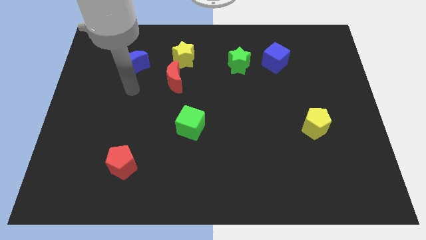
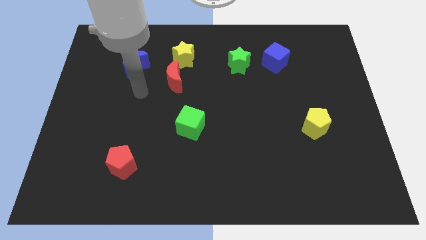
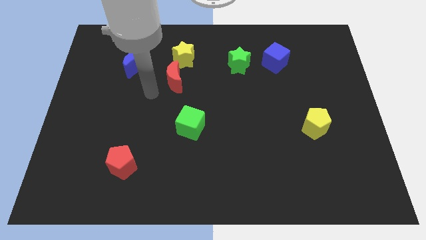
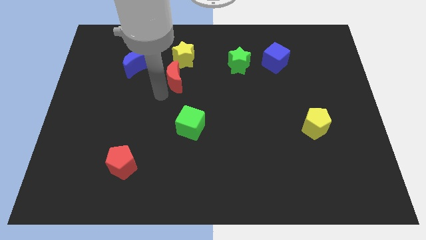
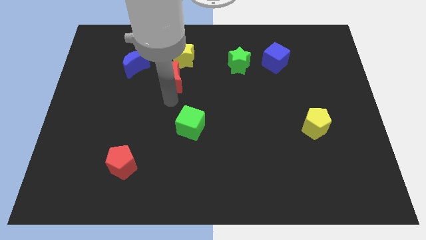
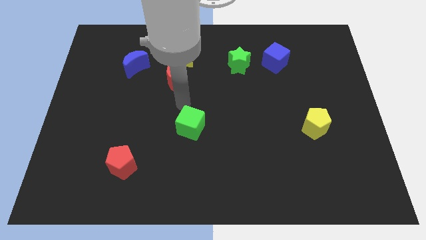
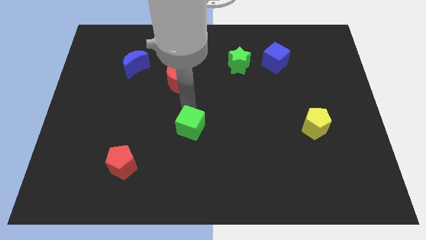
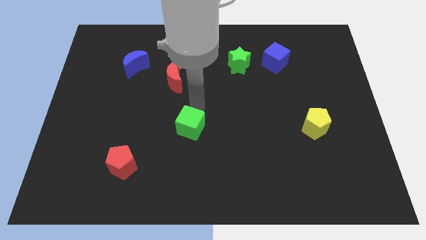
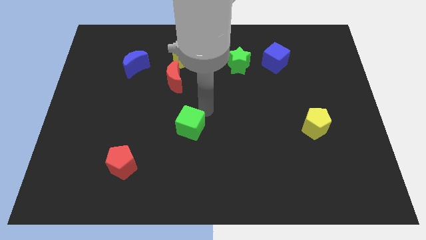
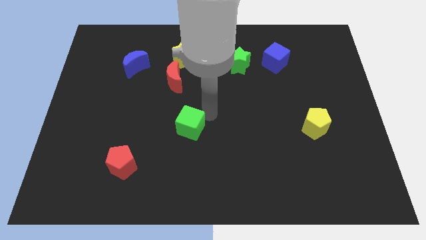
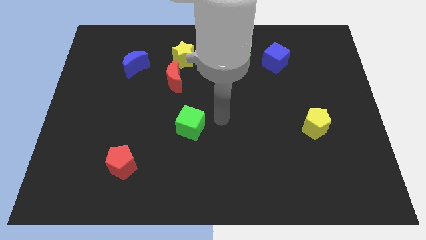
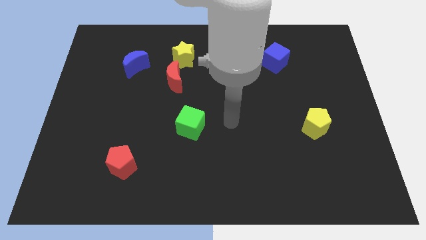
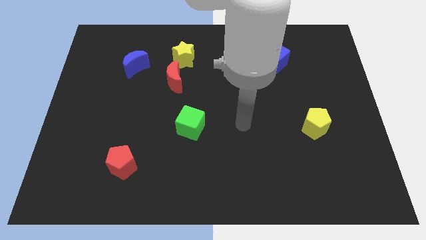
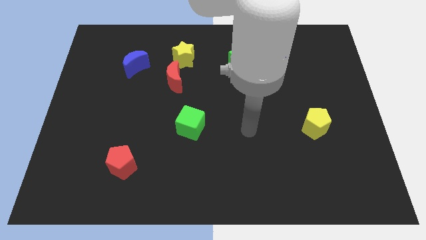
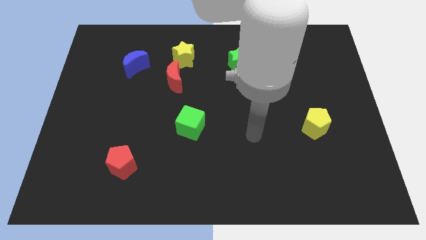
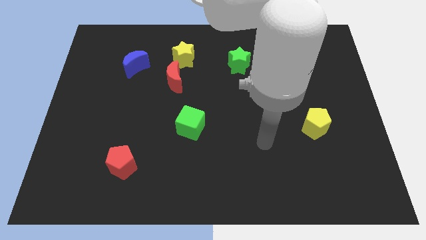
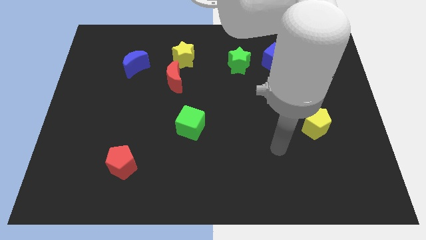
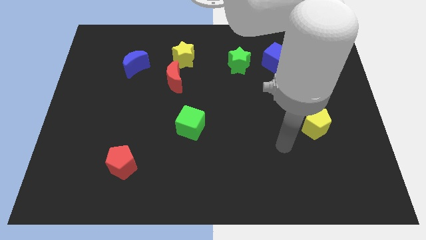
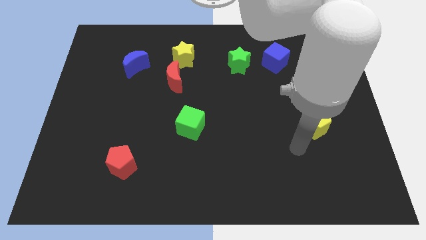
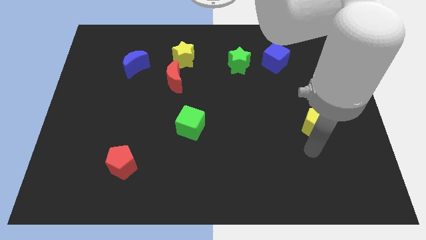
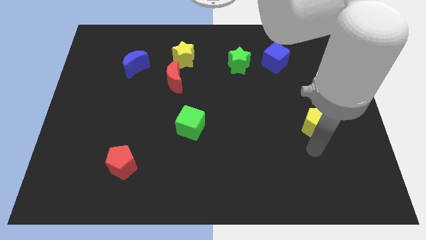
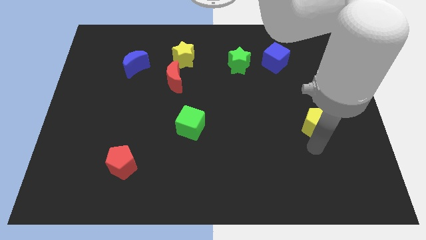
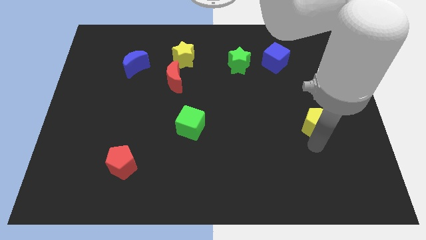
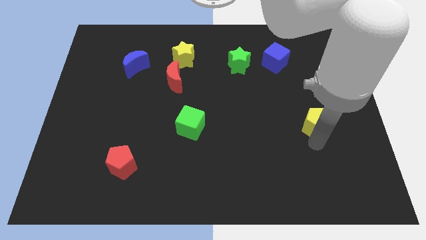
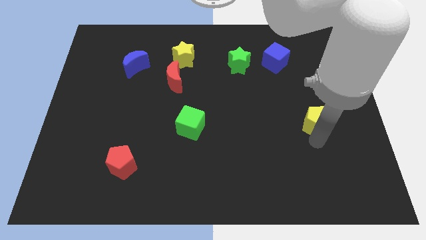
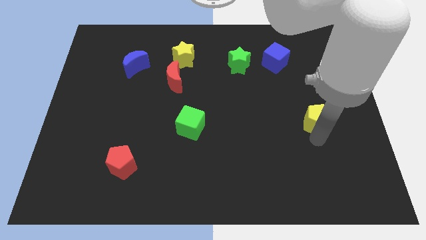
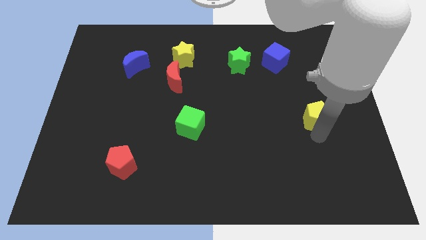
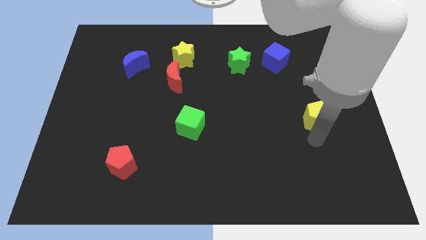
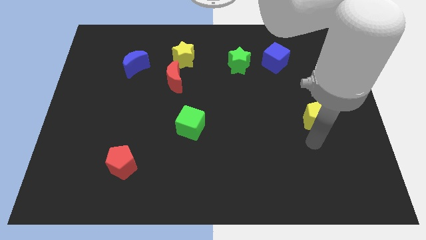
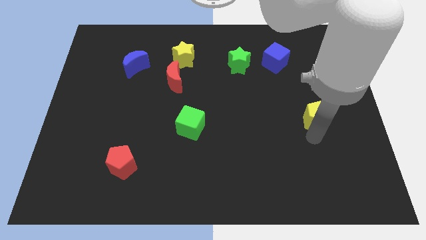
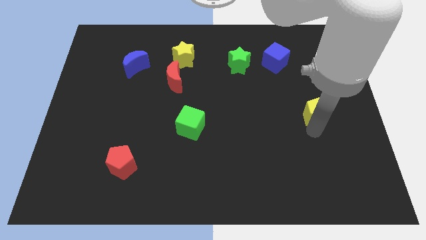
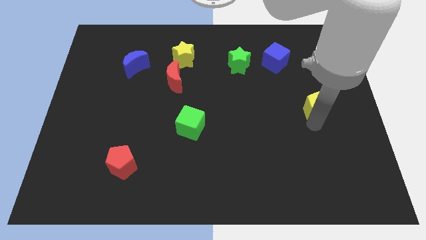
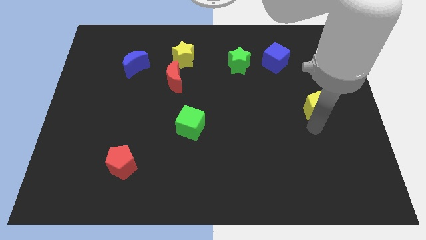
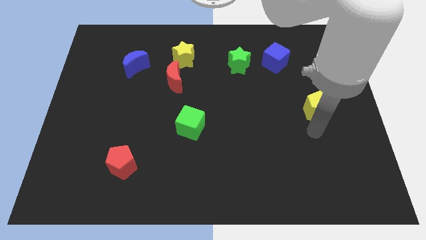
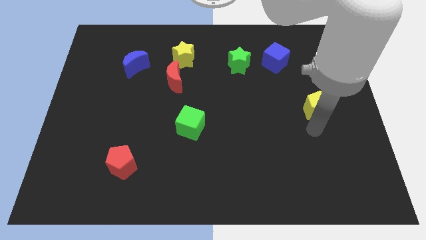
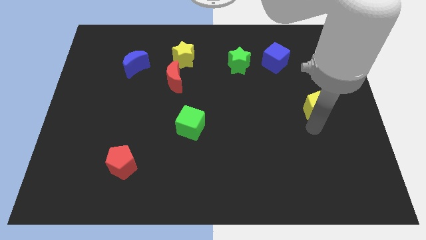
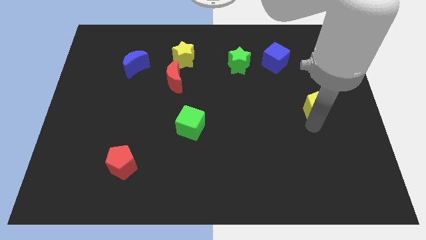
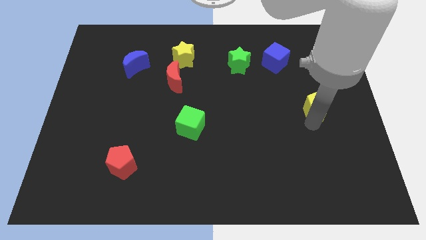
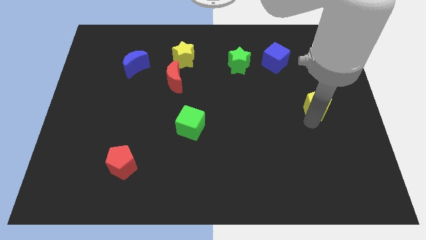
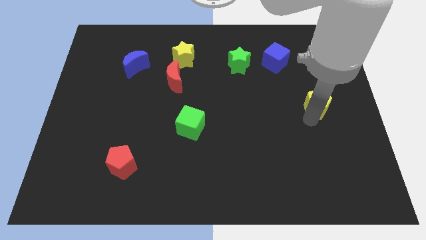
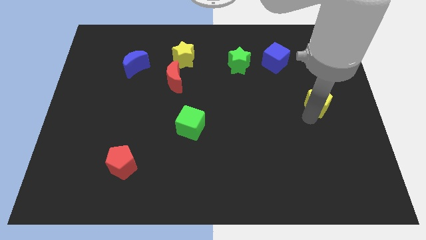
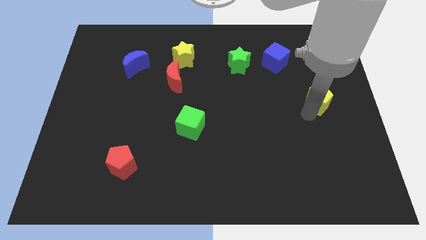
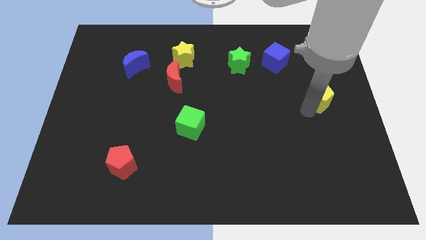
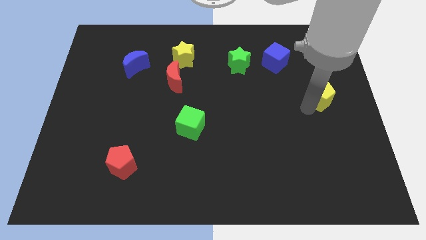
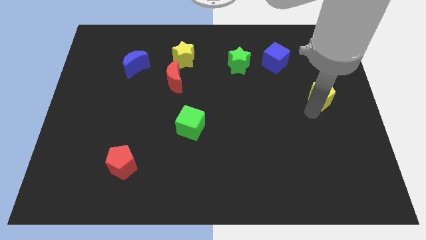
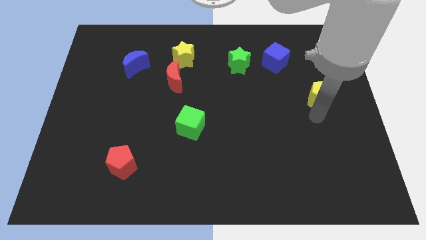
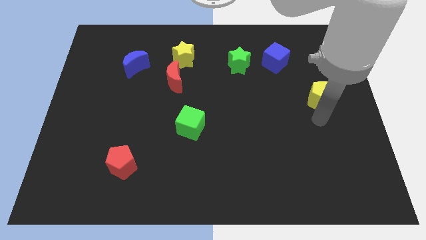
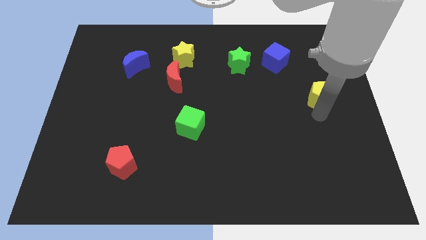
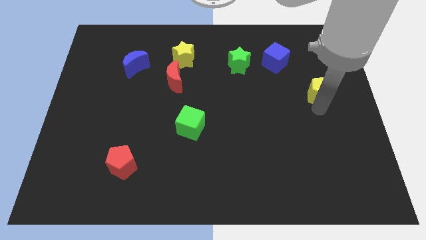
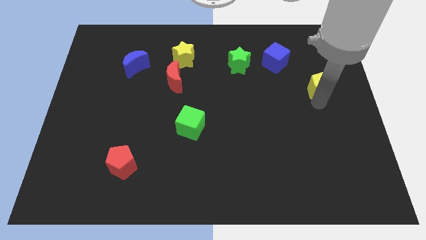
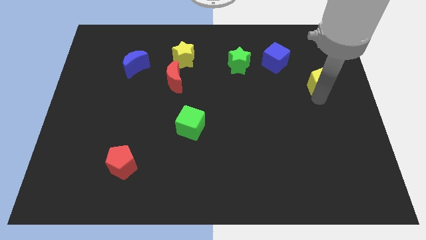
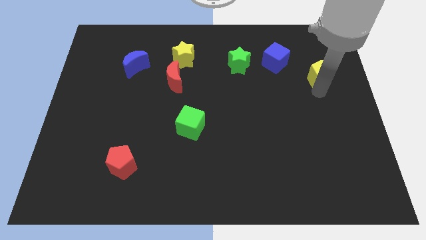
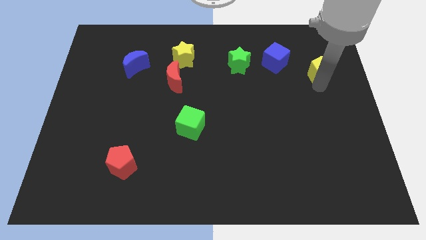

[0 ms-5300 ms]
put the yellow pentagon just right of the blue cube

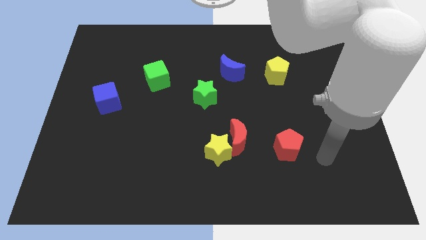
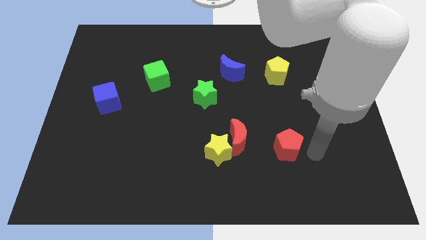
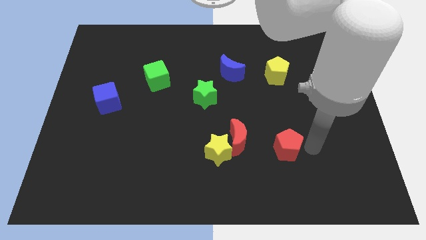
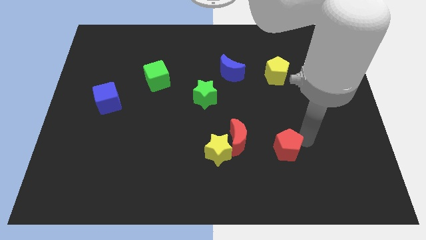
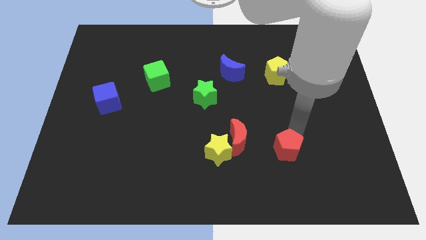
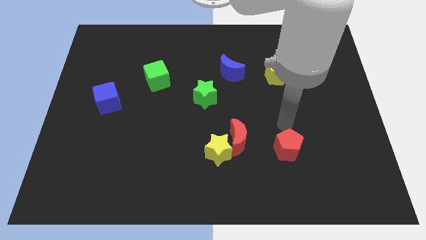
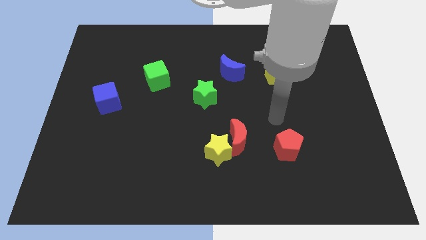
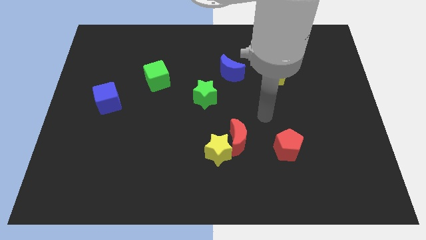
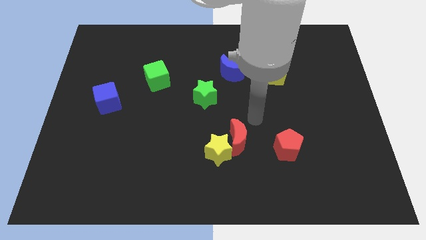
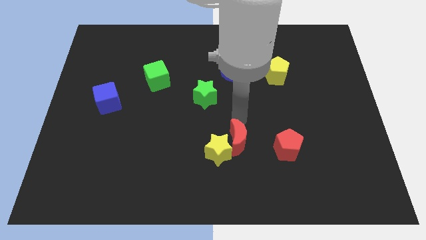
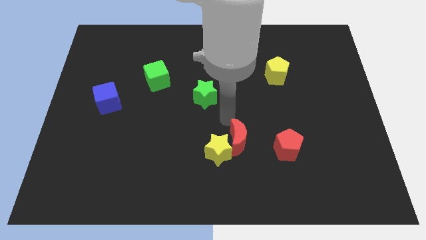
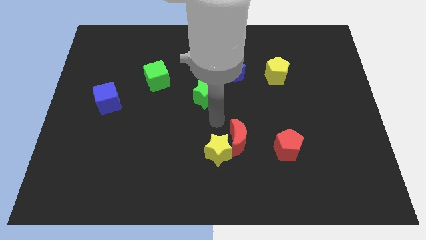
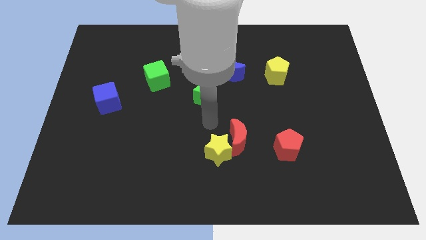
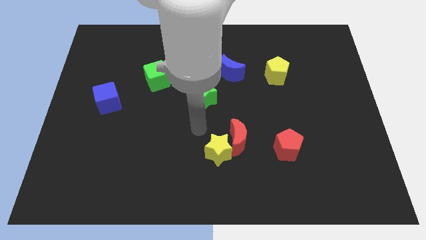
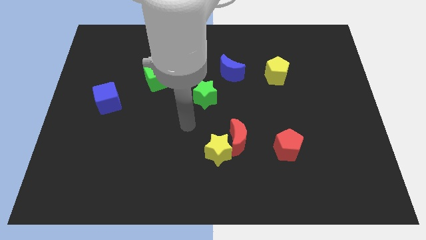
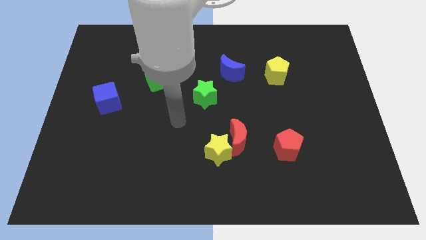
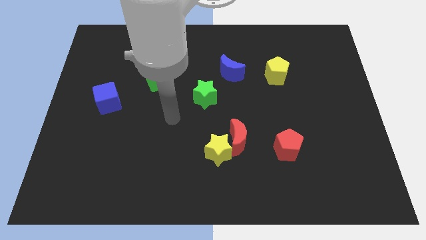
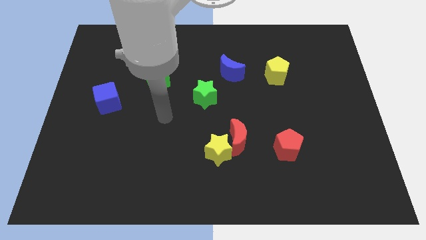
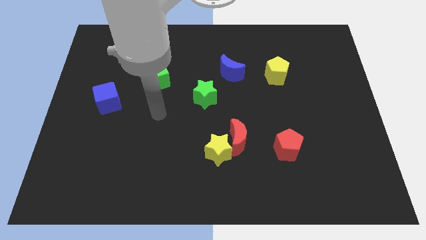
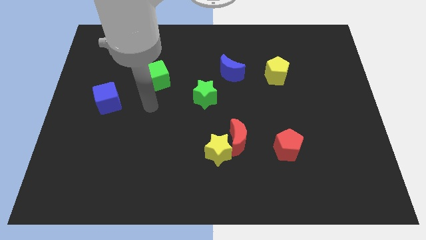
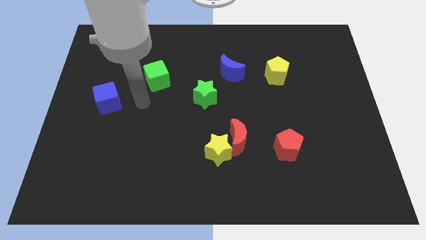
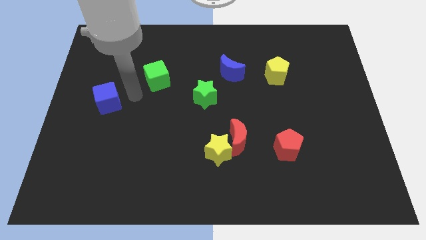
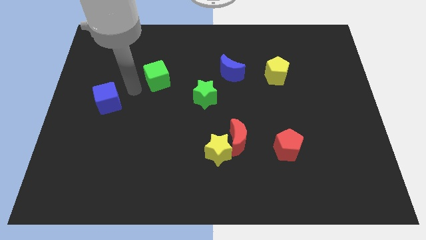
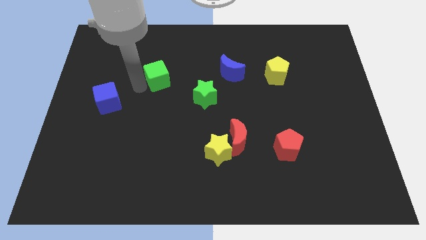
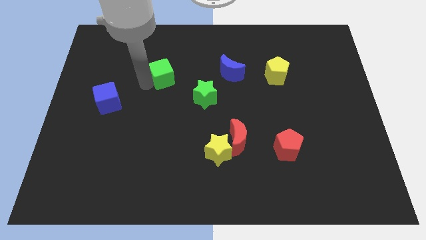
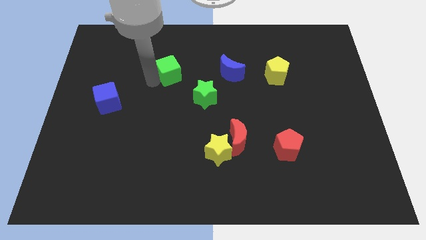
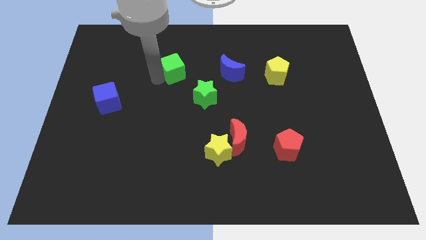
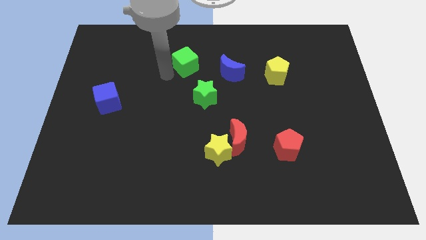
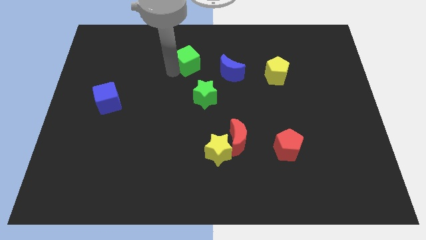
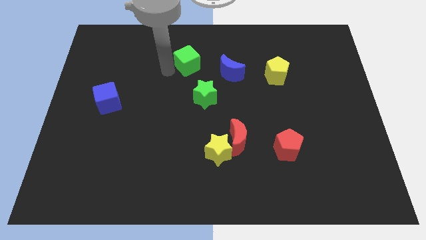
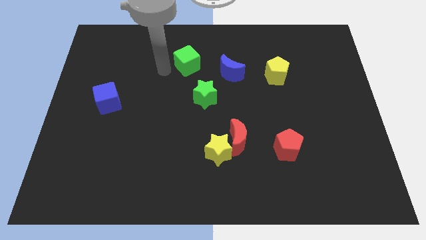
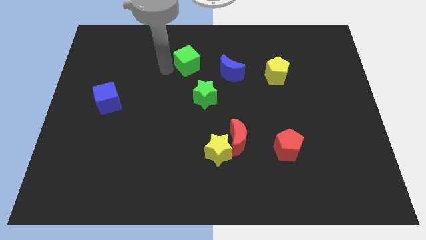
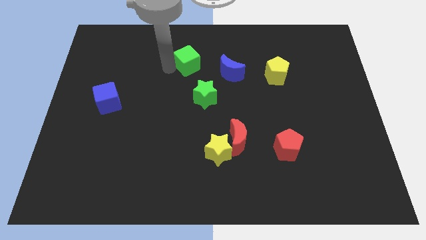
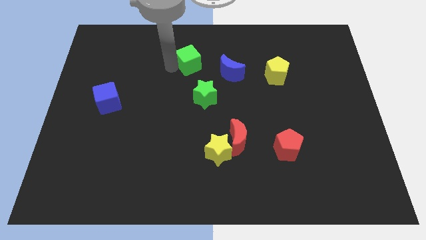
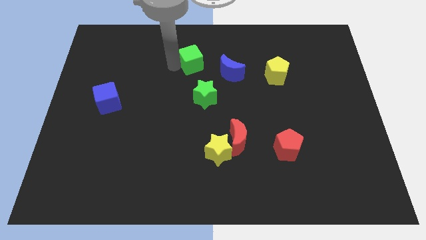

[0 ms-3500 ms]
push the green cube diagonally up and to the left of the blue moon
